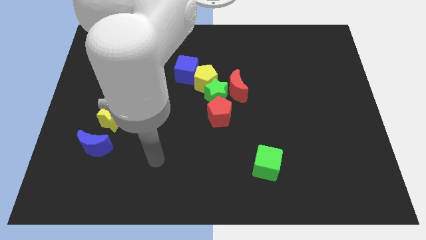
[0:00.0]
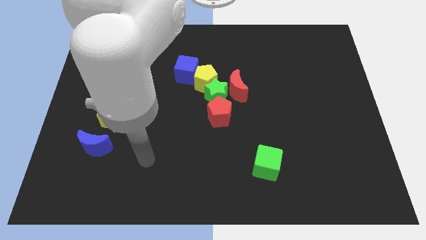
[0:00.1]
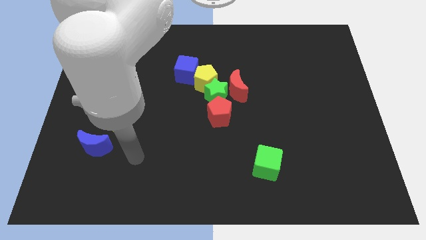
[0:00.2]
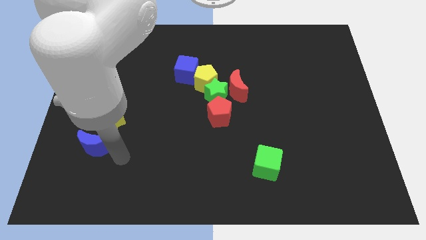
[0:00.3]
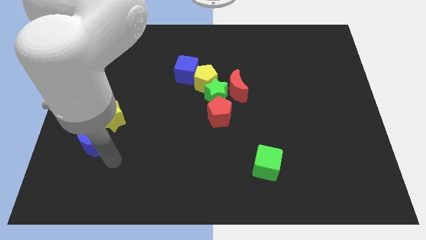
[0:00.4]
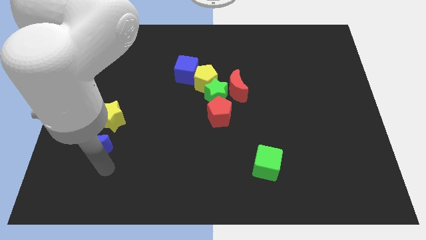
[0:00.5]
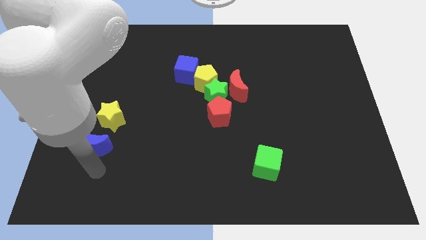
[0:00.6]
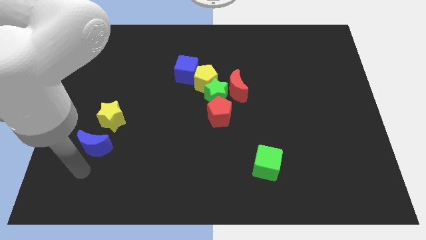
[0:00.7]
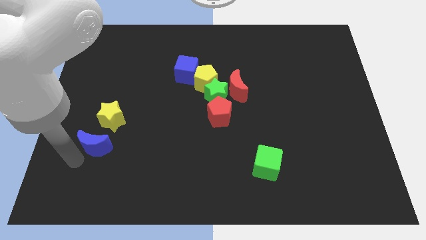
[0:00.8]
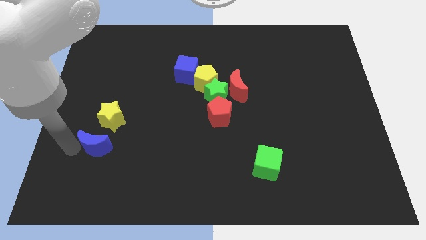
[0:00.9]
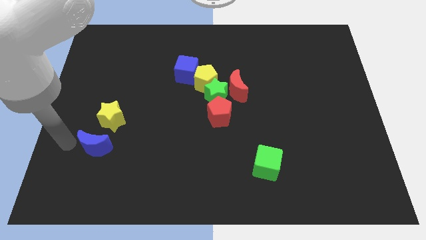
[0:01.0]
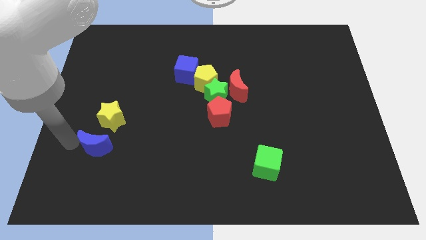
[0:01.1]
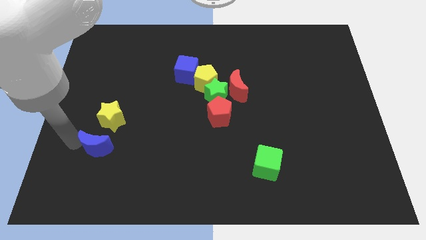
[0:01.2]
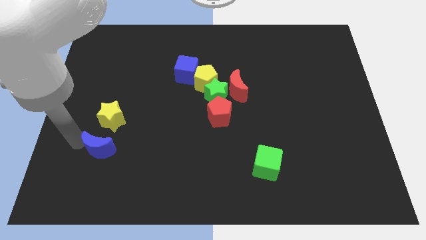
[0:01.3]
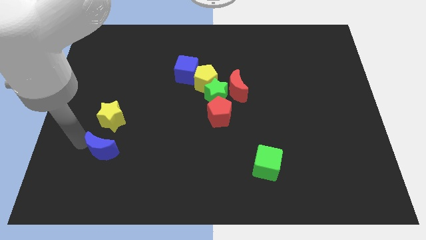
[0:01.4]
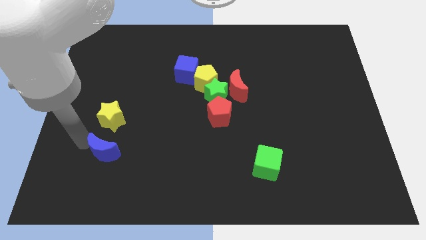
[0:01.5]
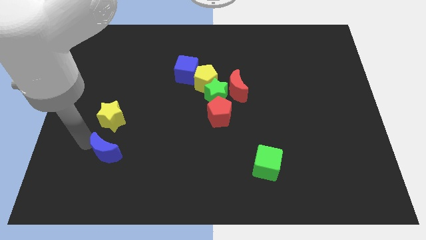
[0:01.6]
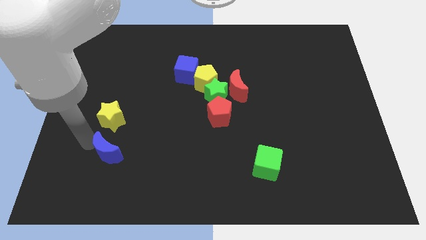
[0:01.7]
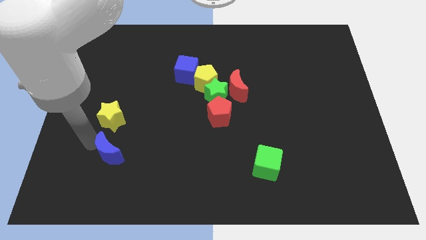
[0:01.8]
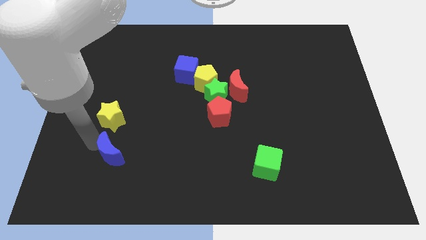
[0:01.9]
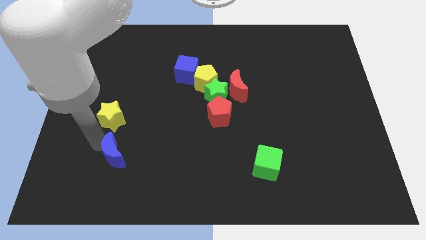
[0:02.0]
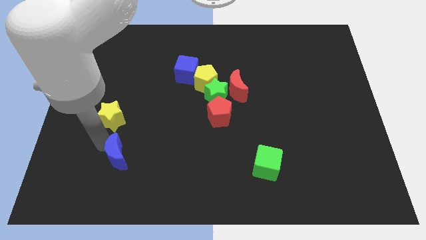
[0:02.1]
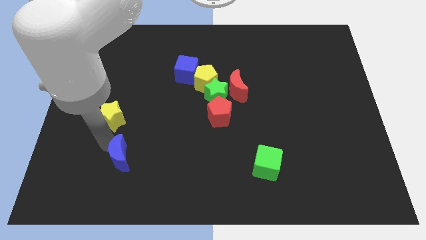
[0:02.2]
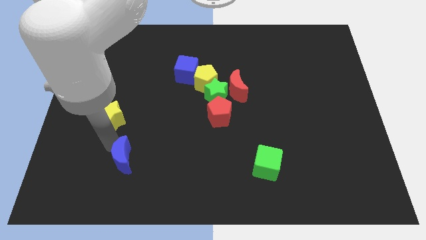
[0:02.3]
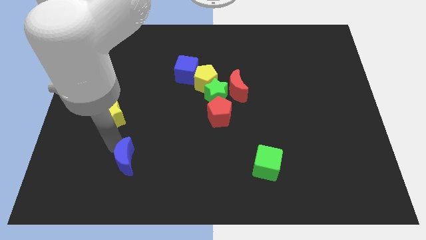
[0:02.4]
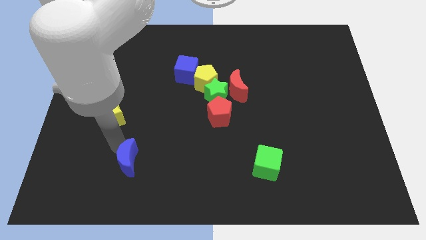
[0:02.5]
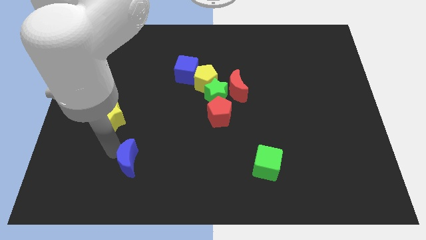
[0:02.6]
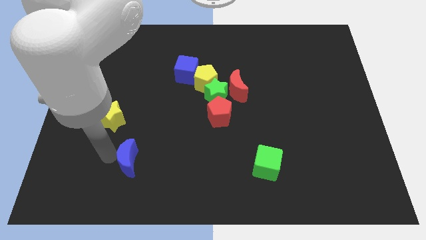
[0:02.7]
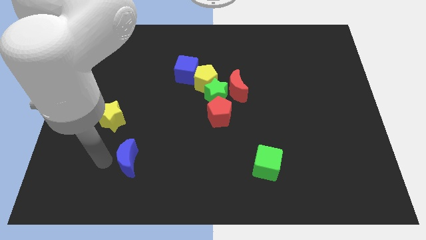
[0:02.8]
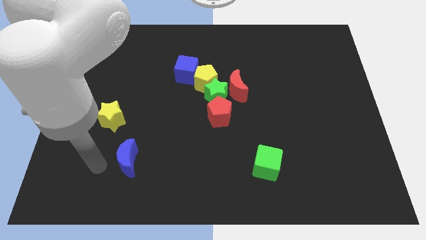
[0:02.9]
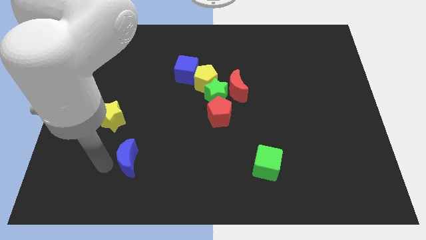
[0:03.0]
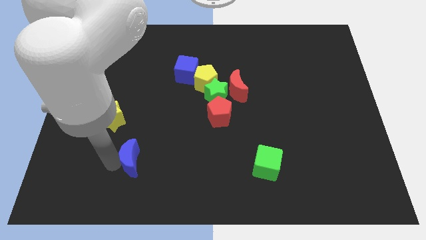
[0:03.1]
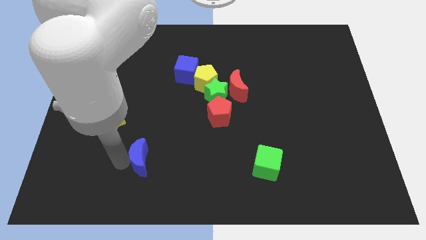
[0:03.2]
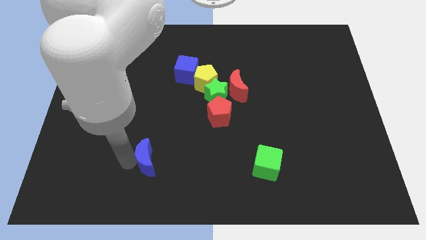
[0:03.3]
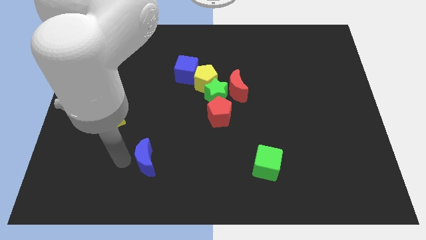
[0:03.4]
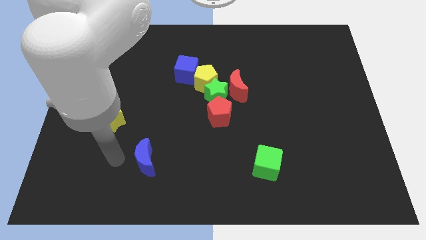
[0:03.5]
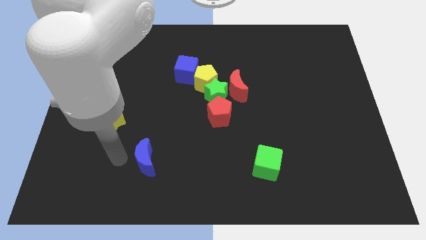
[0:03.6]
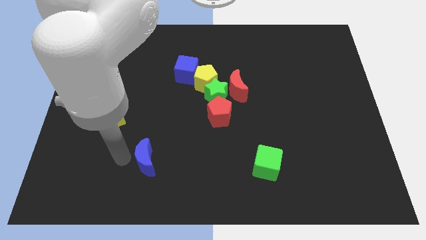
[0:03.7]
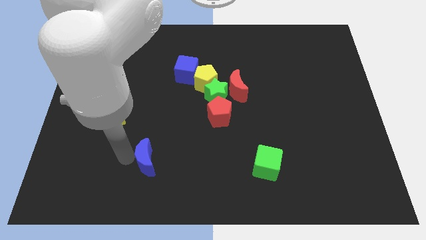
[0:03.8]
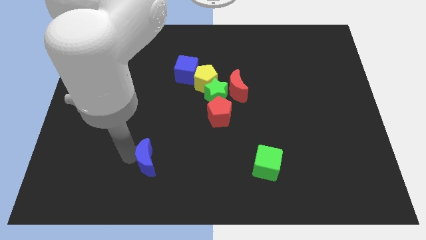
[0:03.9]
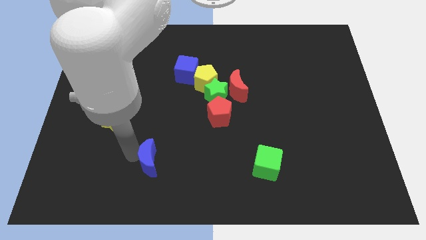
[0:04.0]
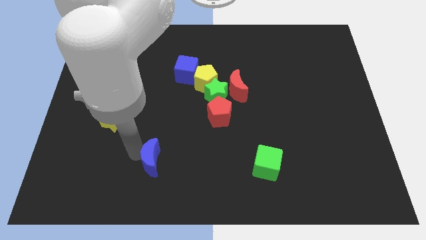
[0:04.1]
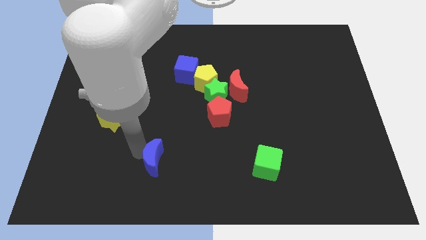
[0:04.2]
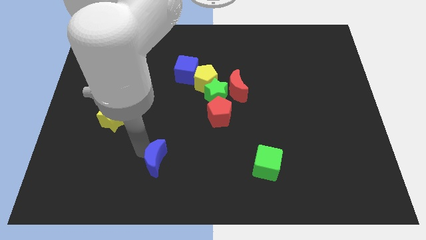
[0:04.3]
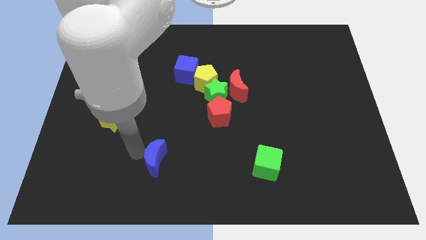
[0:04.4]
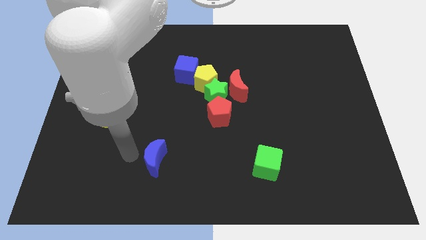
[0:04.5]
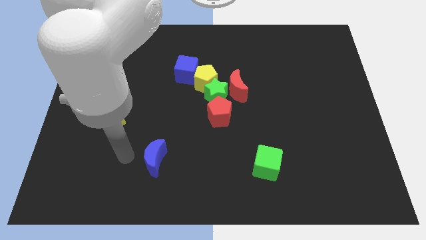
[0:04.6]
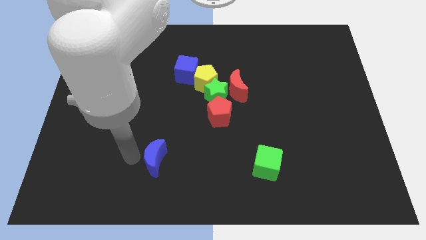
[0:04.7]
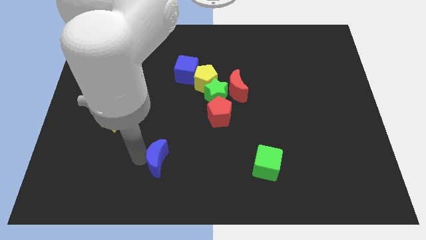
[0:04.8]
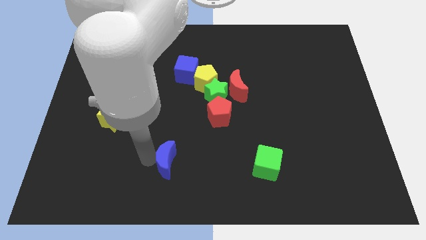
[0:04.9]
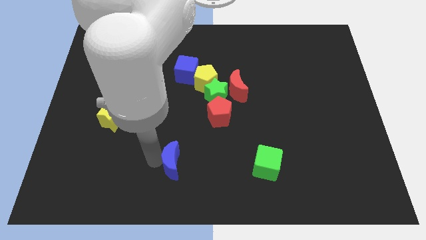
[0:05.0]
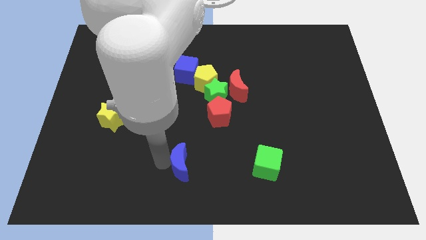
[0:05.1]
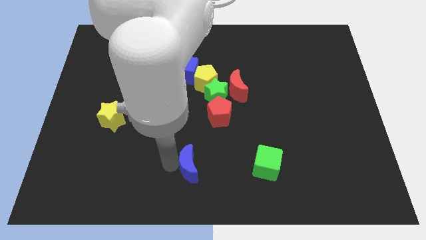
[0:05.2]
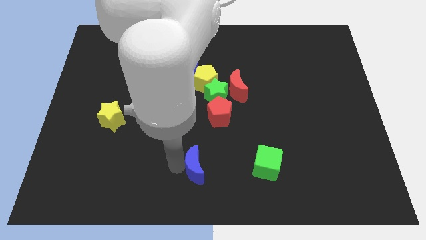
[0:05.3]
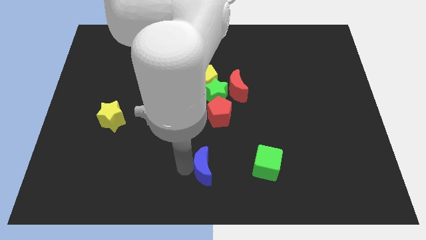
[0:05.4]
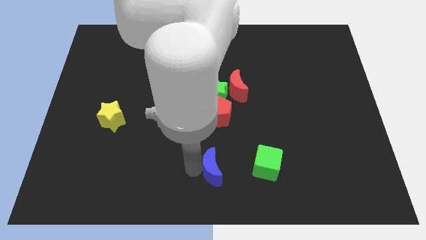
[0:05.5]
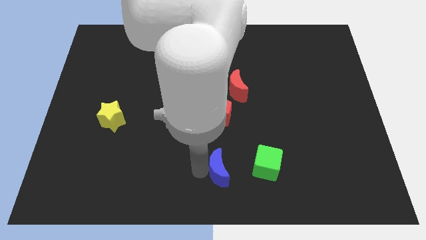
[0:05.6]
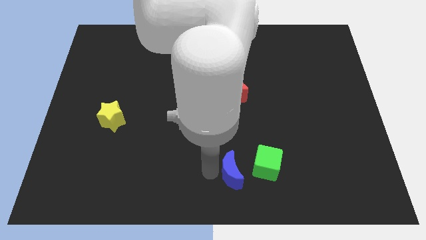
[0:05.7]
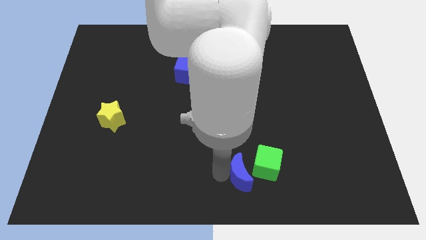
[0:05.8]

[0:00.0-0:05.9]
put the blue moon close to the green cube

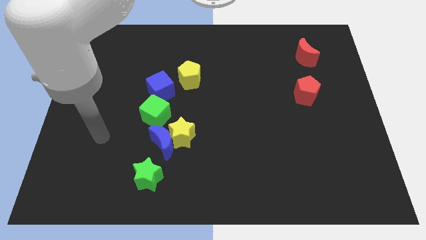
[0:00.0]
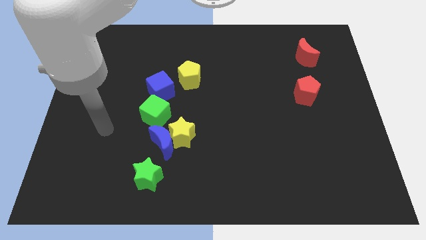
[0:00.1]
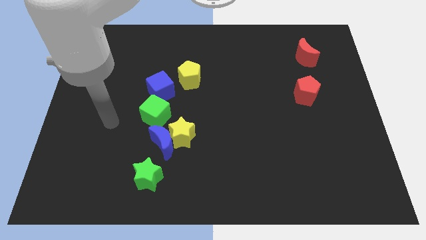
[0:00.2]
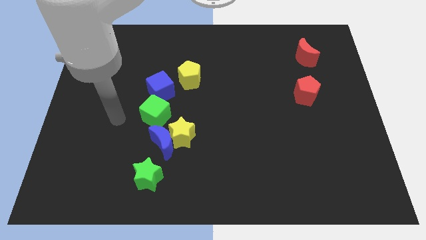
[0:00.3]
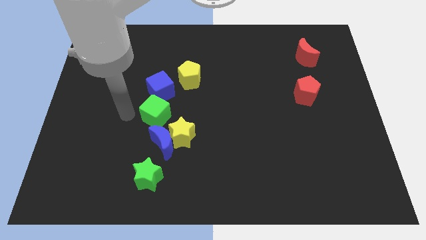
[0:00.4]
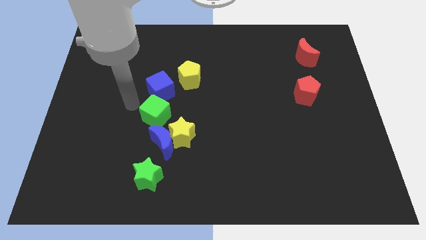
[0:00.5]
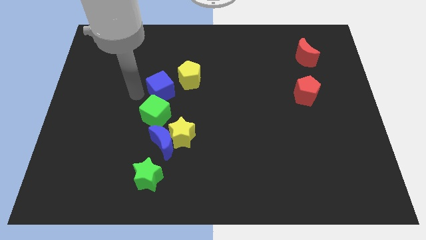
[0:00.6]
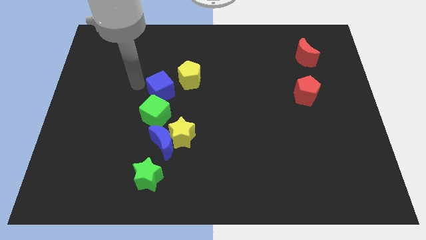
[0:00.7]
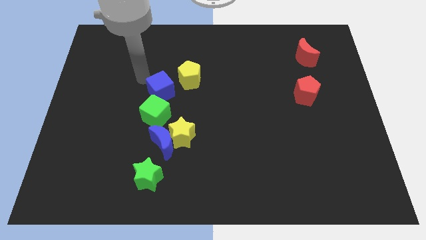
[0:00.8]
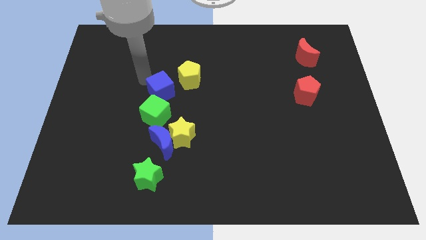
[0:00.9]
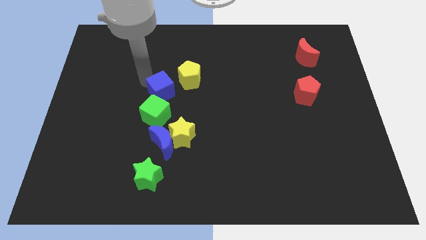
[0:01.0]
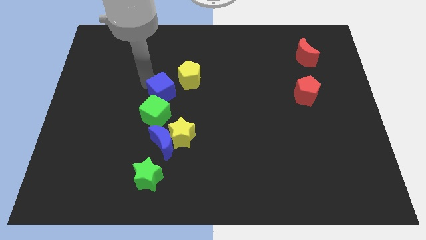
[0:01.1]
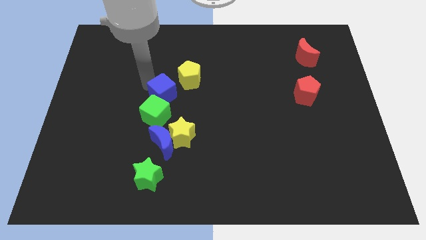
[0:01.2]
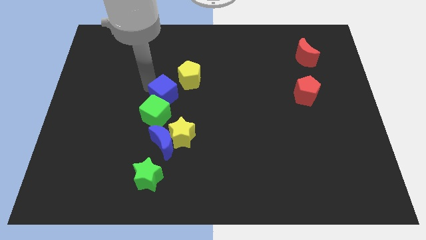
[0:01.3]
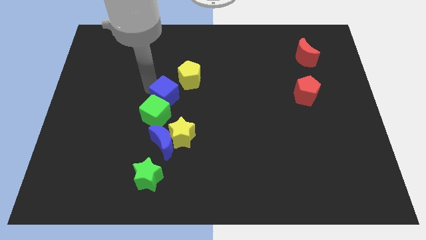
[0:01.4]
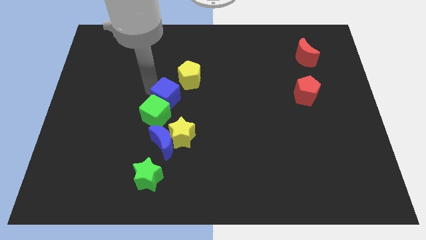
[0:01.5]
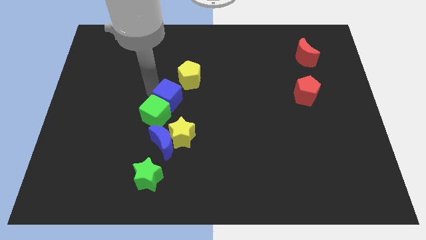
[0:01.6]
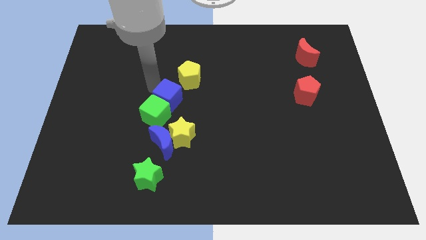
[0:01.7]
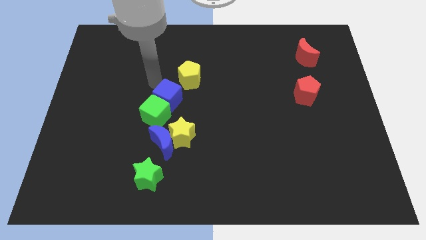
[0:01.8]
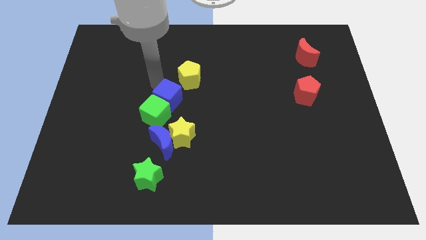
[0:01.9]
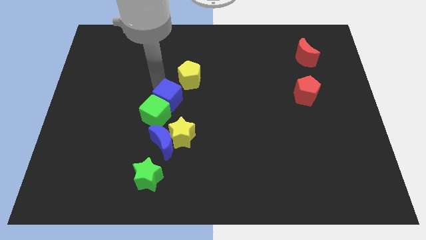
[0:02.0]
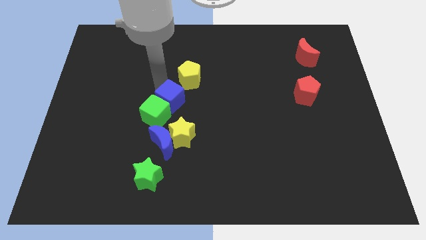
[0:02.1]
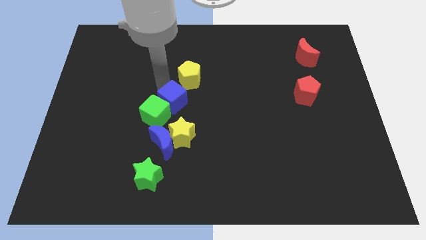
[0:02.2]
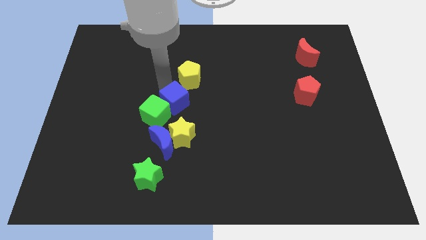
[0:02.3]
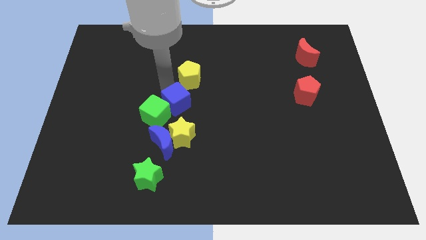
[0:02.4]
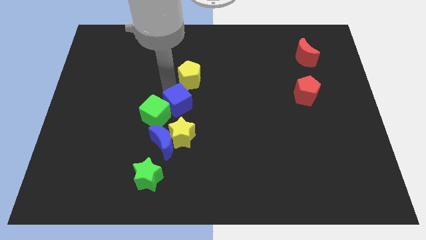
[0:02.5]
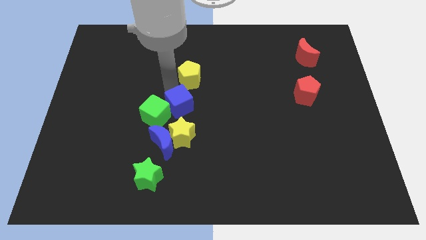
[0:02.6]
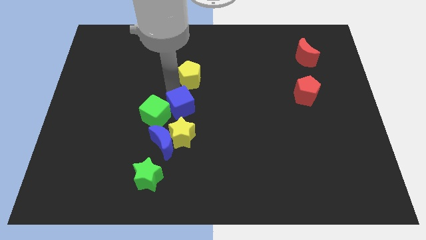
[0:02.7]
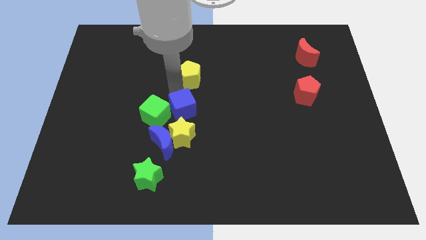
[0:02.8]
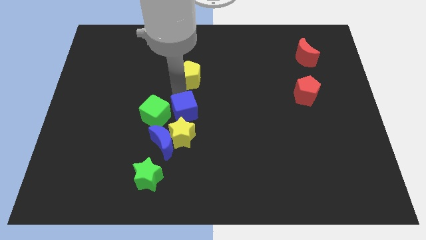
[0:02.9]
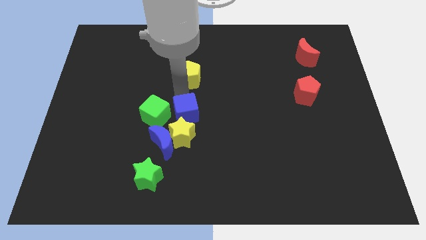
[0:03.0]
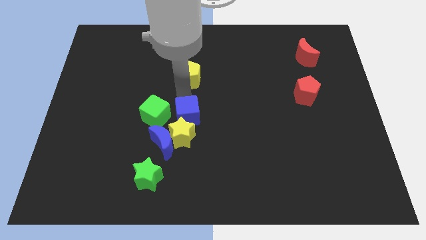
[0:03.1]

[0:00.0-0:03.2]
slide the blue cube close to the yellow star
